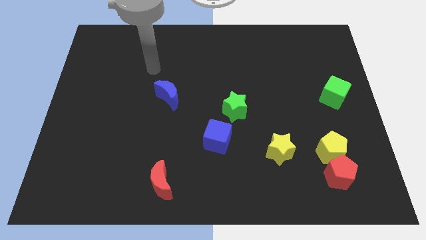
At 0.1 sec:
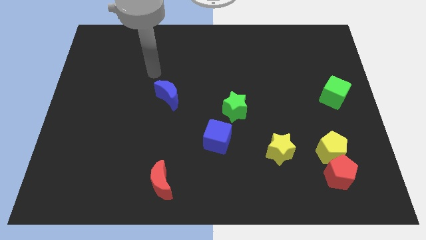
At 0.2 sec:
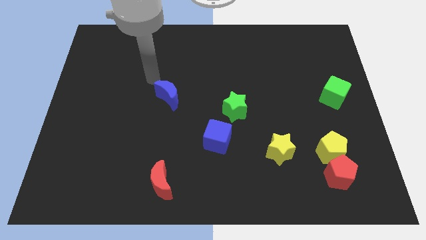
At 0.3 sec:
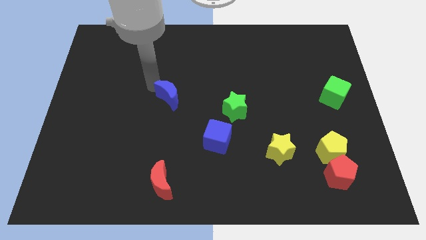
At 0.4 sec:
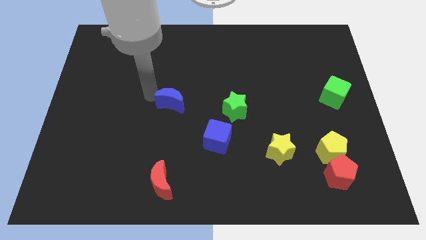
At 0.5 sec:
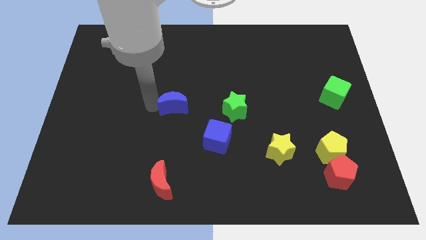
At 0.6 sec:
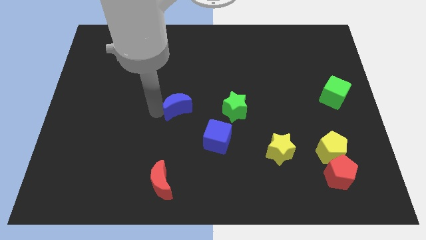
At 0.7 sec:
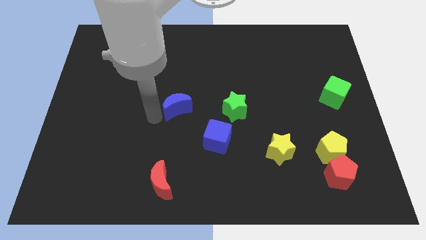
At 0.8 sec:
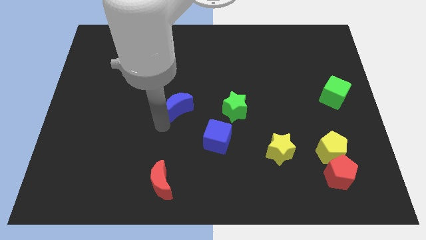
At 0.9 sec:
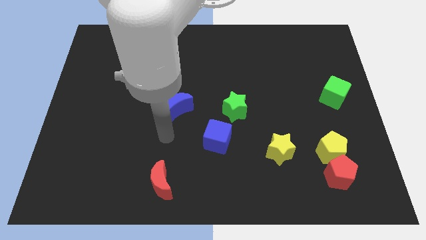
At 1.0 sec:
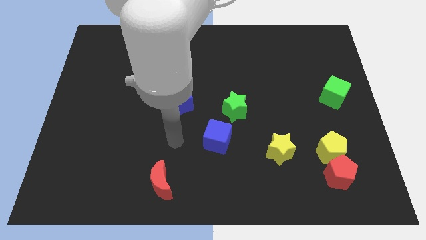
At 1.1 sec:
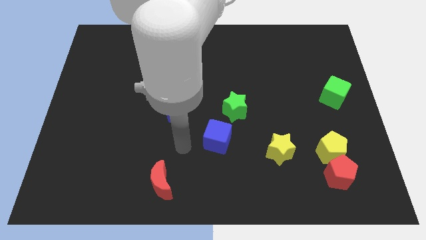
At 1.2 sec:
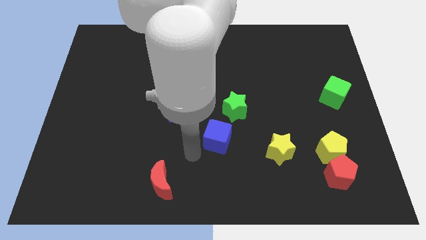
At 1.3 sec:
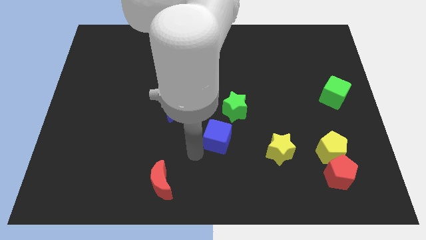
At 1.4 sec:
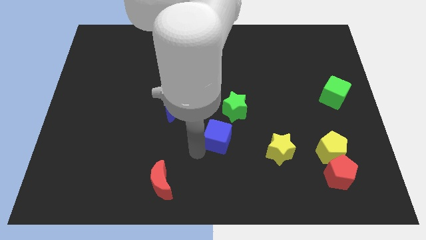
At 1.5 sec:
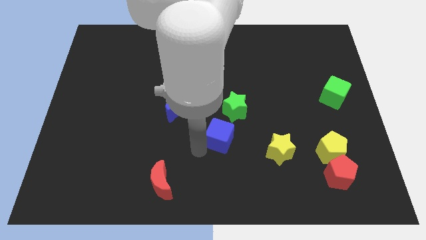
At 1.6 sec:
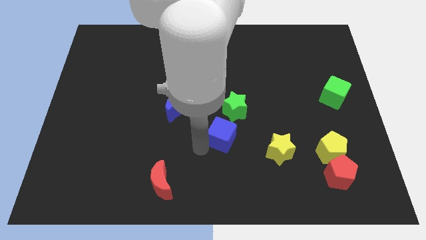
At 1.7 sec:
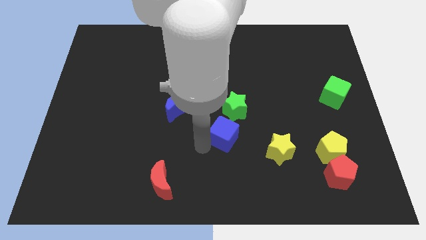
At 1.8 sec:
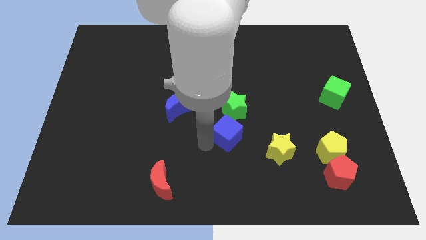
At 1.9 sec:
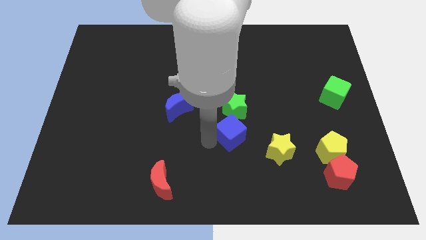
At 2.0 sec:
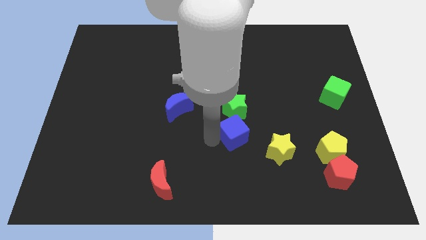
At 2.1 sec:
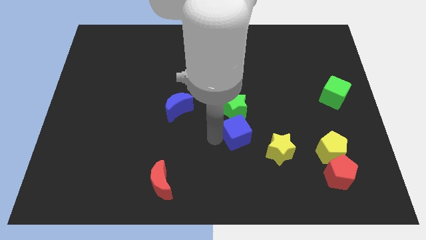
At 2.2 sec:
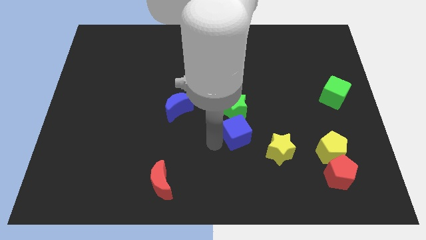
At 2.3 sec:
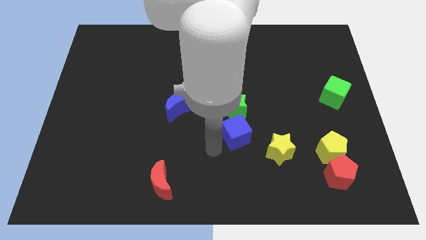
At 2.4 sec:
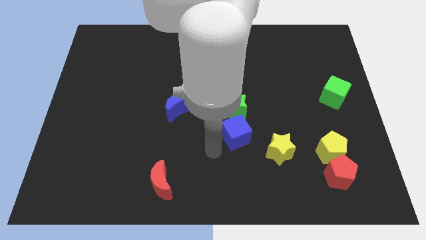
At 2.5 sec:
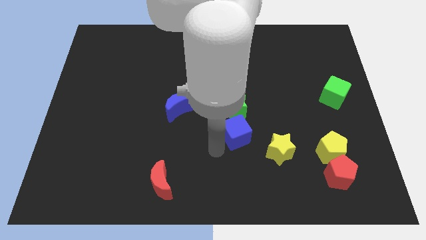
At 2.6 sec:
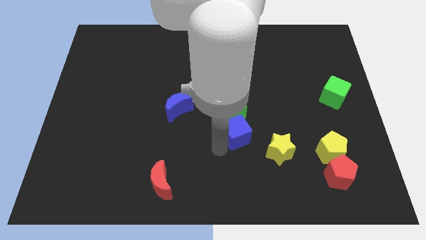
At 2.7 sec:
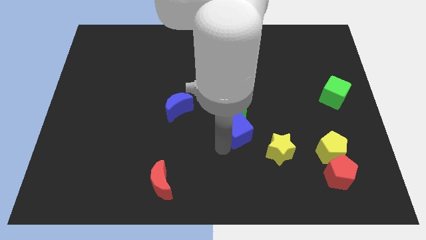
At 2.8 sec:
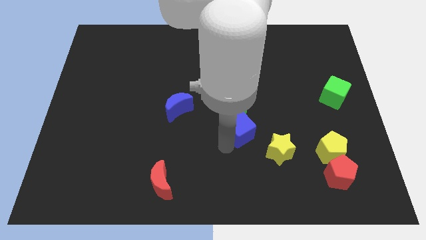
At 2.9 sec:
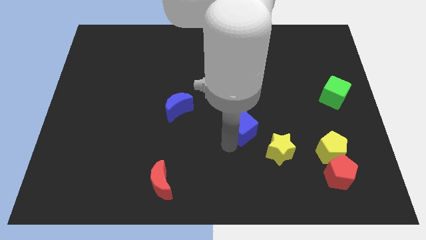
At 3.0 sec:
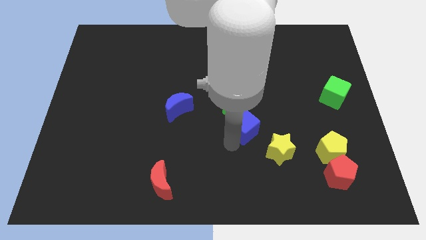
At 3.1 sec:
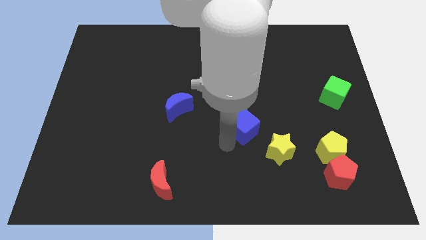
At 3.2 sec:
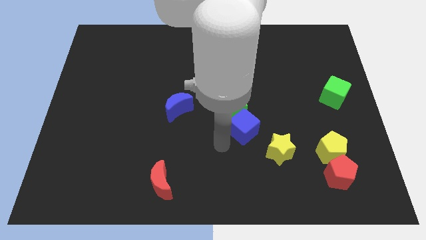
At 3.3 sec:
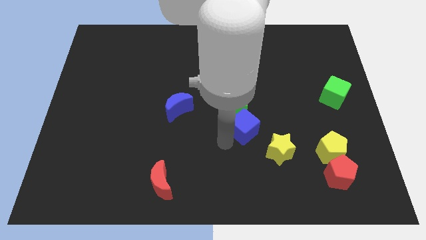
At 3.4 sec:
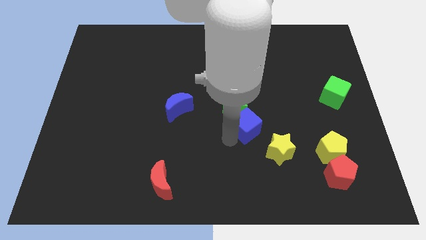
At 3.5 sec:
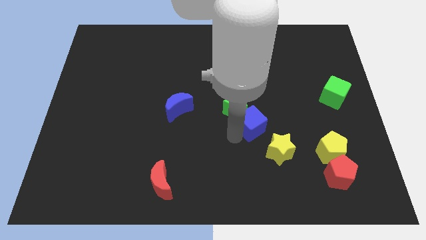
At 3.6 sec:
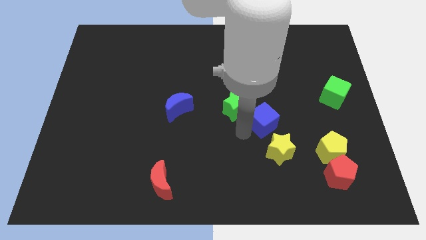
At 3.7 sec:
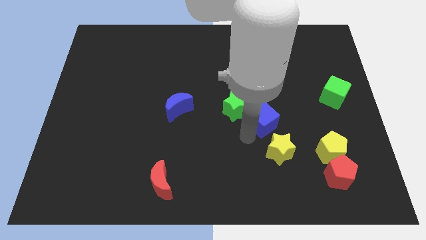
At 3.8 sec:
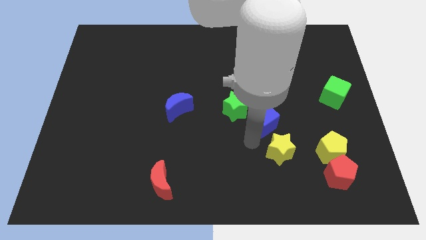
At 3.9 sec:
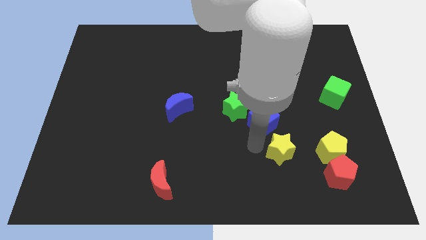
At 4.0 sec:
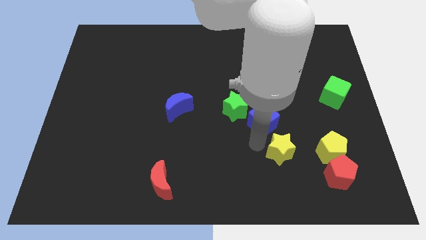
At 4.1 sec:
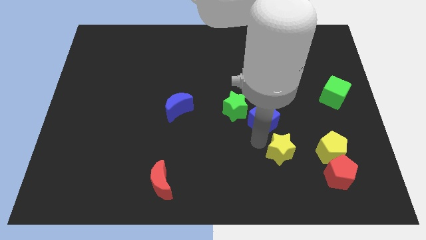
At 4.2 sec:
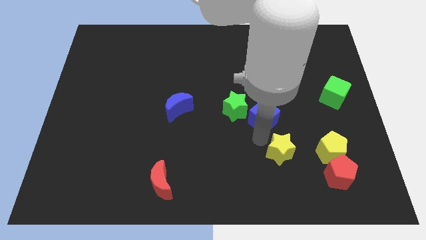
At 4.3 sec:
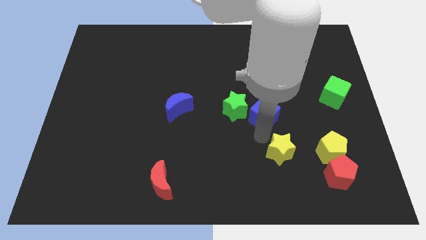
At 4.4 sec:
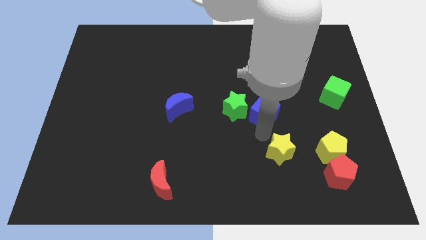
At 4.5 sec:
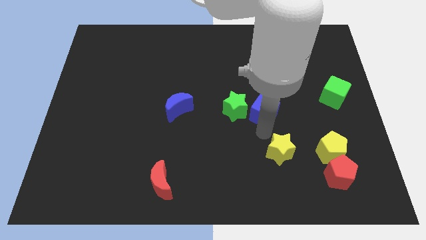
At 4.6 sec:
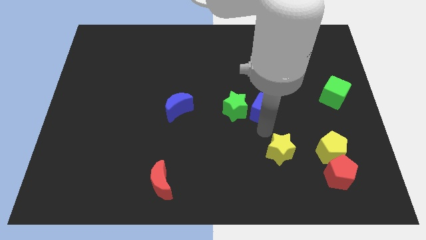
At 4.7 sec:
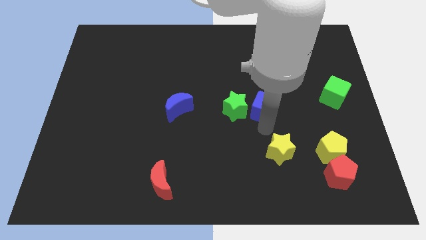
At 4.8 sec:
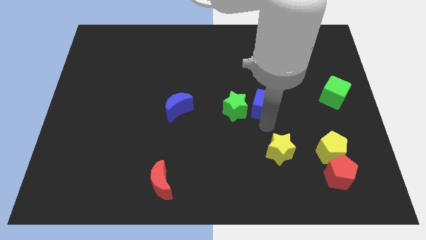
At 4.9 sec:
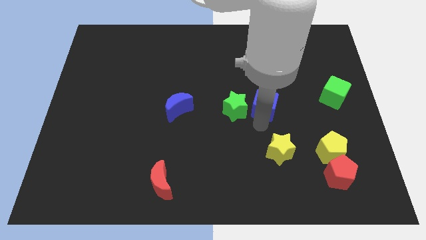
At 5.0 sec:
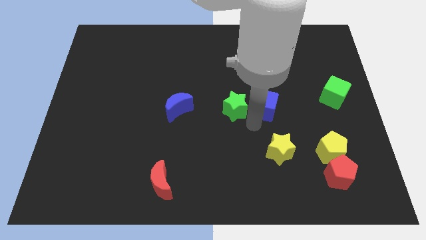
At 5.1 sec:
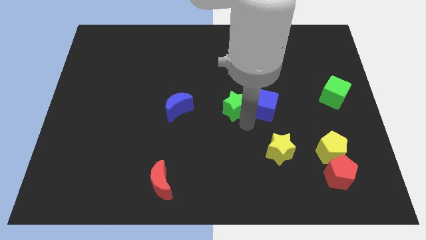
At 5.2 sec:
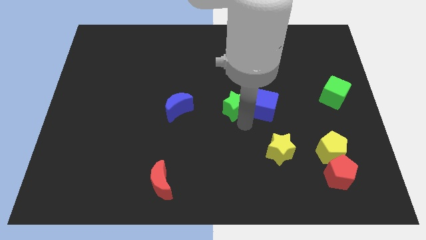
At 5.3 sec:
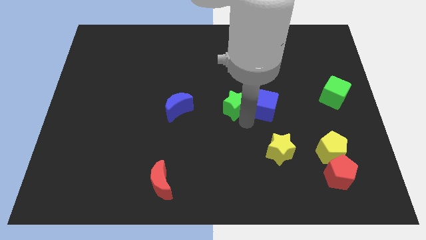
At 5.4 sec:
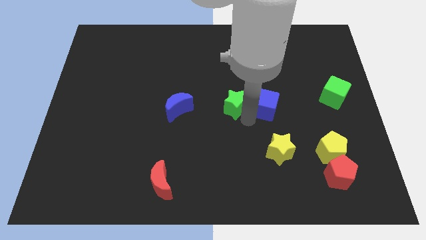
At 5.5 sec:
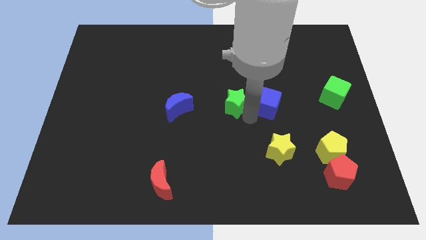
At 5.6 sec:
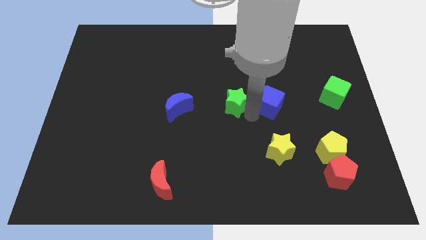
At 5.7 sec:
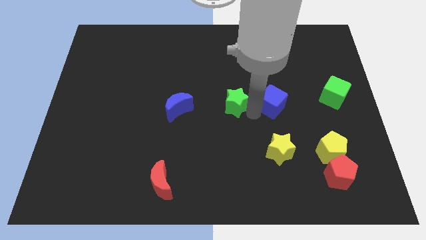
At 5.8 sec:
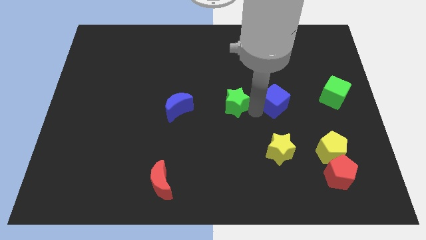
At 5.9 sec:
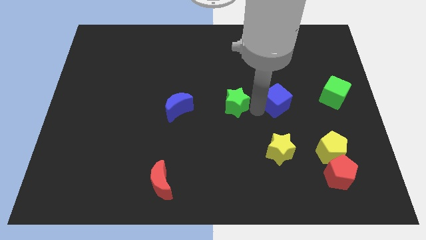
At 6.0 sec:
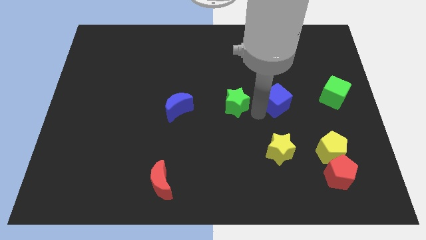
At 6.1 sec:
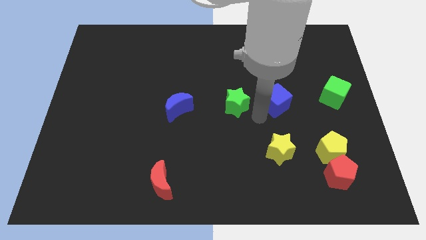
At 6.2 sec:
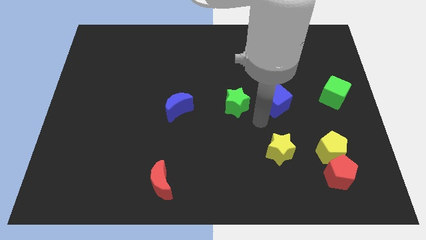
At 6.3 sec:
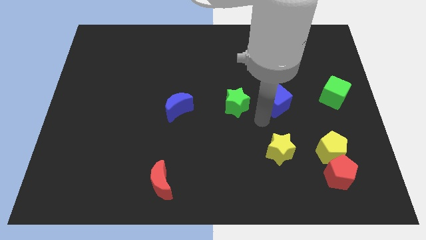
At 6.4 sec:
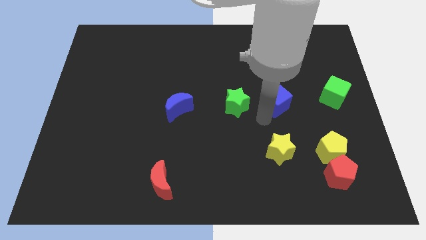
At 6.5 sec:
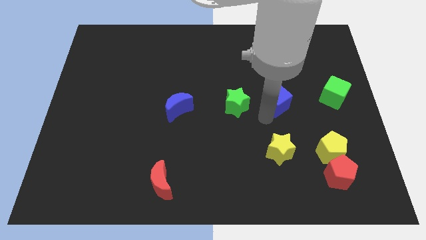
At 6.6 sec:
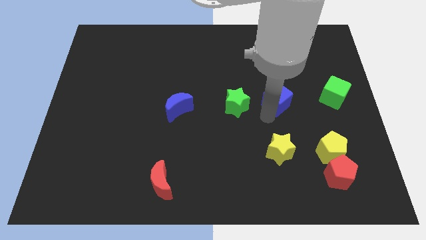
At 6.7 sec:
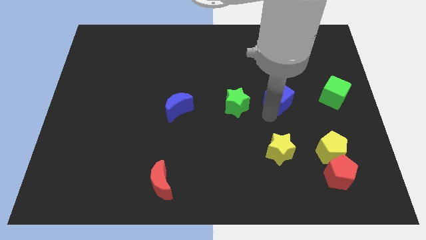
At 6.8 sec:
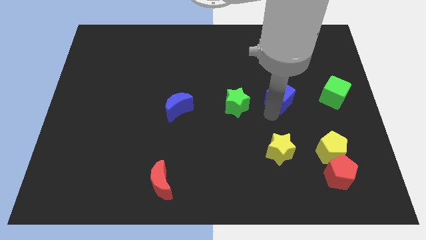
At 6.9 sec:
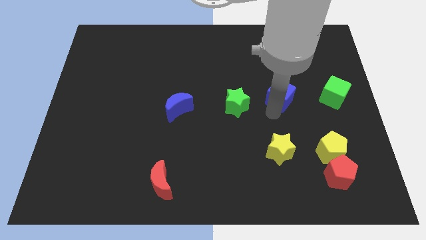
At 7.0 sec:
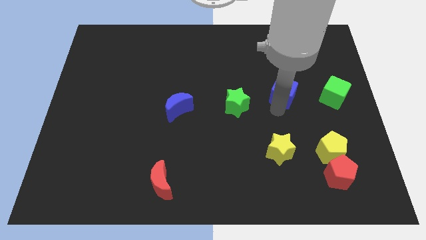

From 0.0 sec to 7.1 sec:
push the blue cube up and to the right

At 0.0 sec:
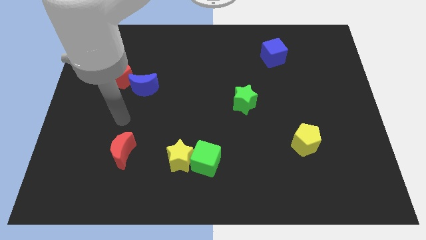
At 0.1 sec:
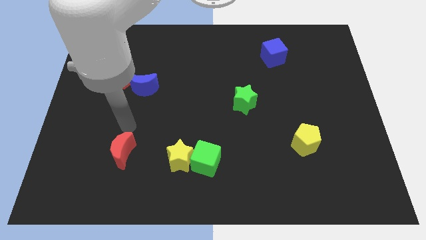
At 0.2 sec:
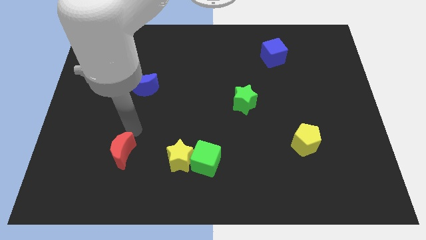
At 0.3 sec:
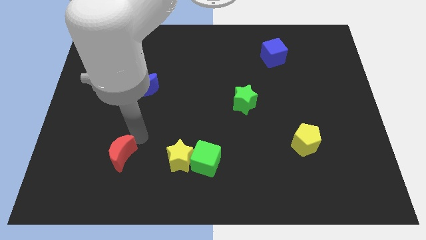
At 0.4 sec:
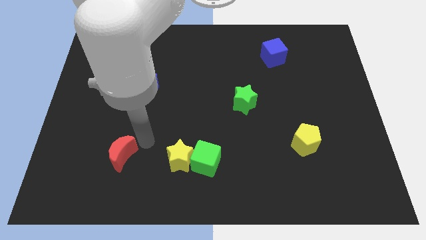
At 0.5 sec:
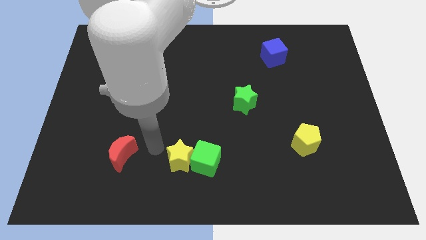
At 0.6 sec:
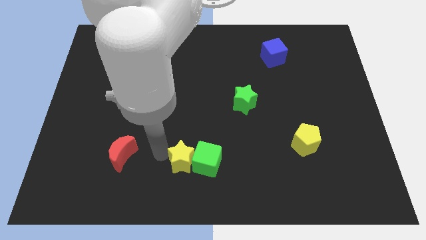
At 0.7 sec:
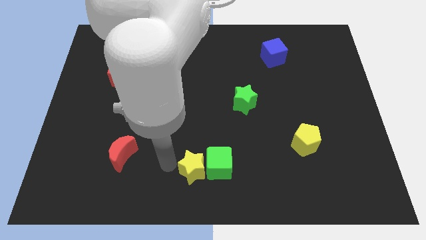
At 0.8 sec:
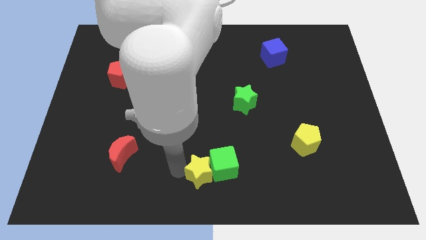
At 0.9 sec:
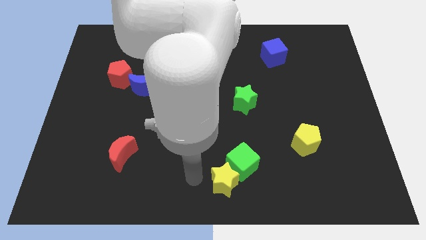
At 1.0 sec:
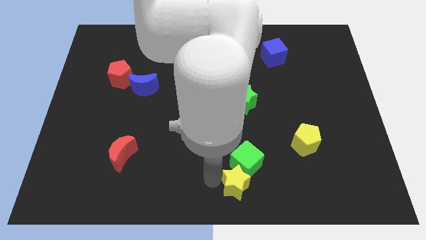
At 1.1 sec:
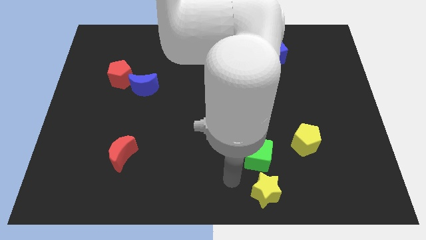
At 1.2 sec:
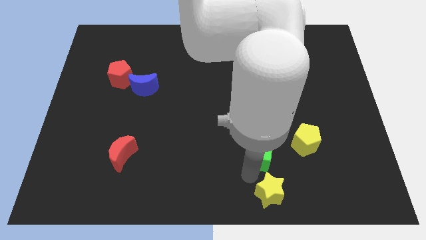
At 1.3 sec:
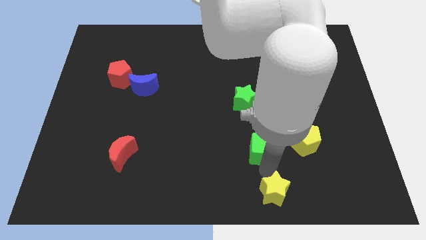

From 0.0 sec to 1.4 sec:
slightly move the green cube up and then right
